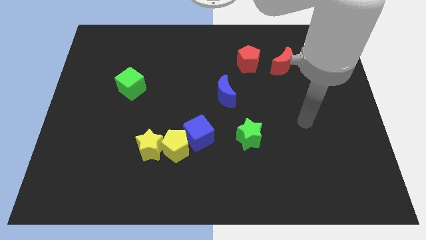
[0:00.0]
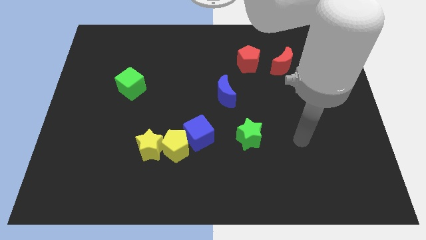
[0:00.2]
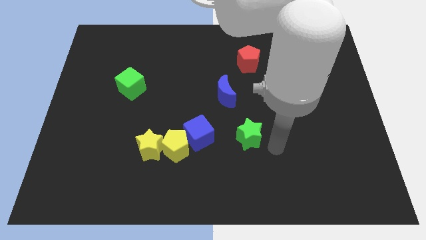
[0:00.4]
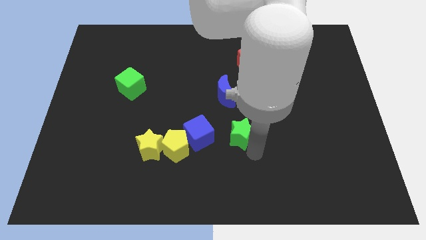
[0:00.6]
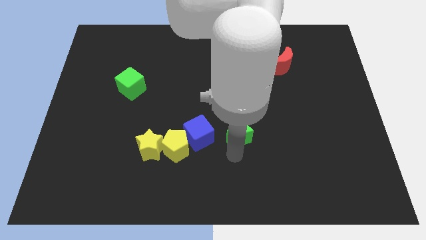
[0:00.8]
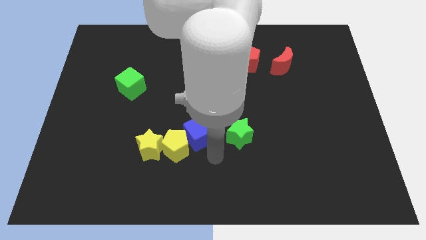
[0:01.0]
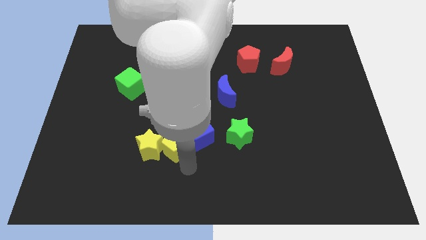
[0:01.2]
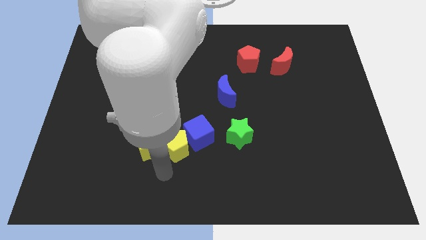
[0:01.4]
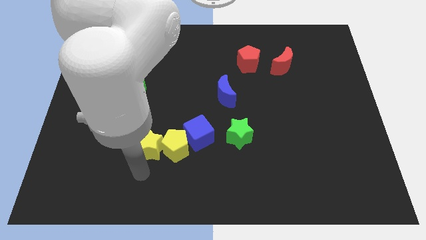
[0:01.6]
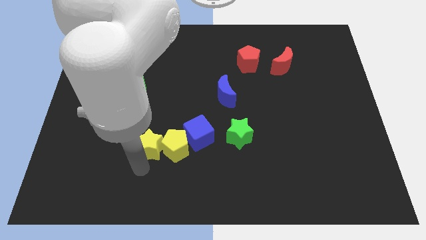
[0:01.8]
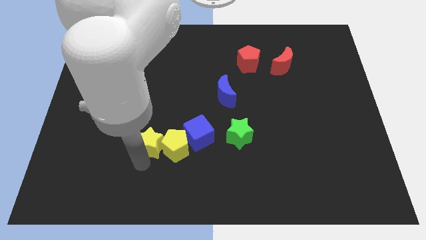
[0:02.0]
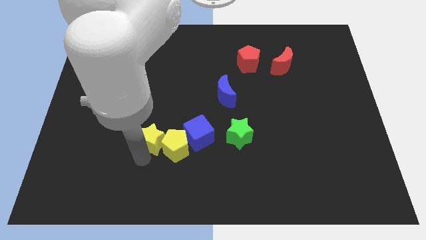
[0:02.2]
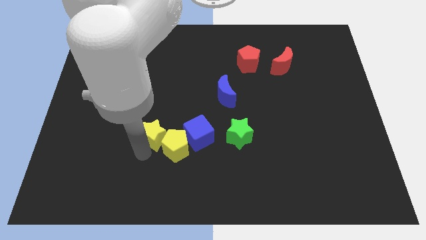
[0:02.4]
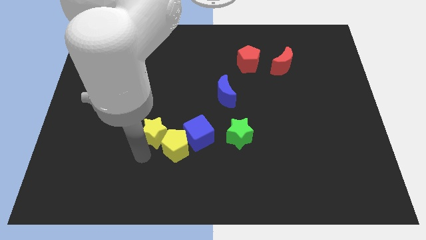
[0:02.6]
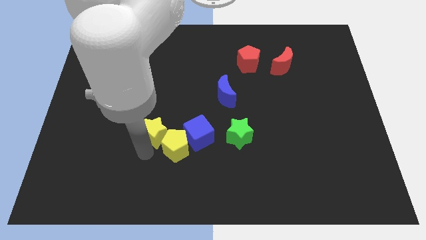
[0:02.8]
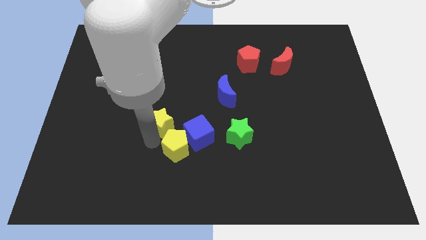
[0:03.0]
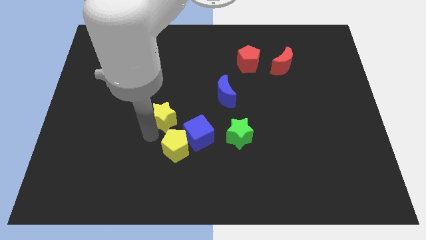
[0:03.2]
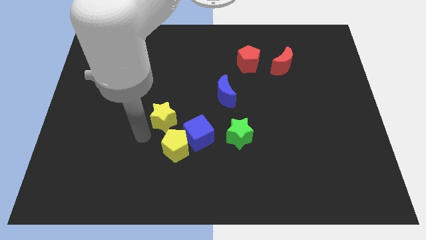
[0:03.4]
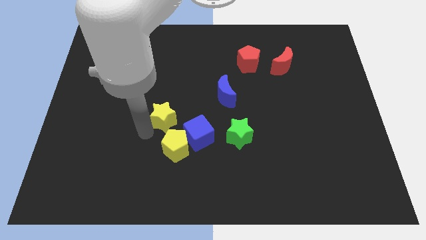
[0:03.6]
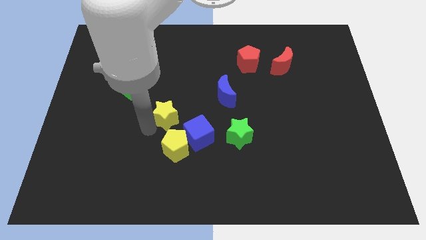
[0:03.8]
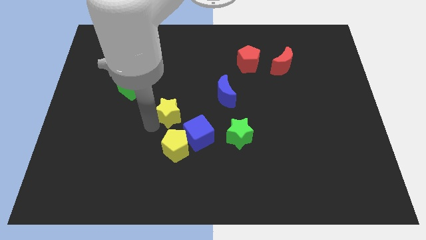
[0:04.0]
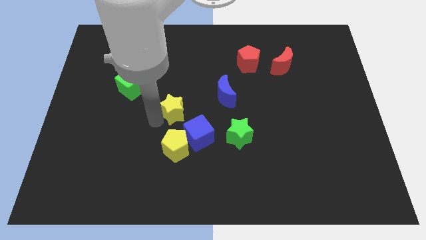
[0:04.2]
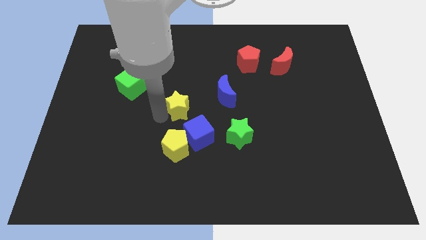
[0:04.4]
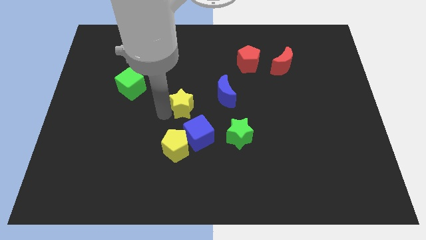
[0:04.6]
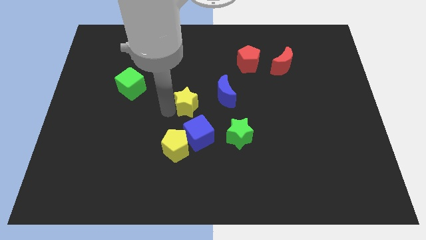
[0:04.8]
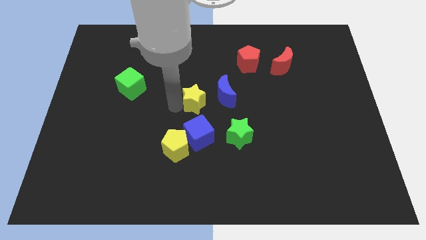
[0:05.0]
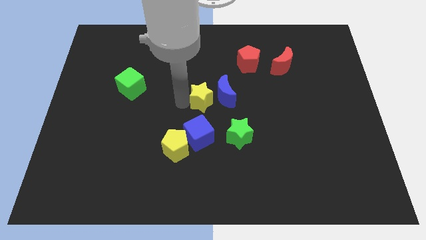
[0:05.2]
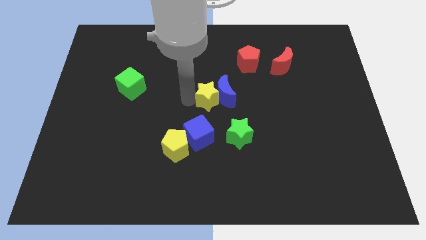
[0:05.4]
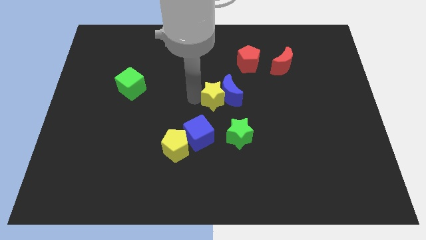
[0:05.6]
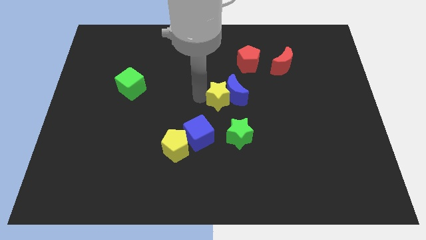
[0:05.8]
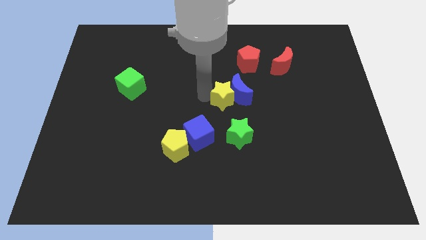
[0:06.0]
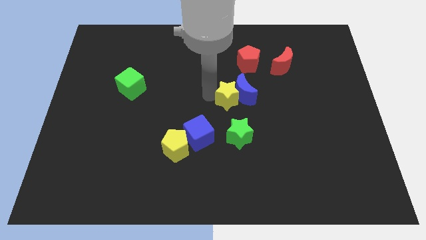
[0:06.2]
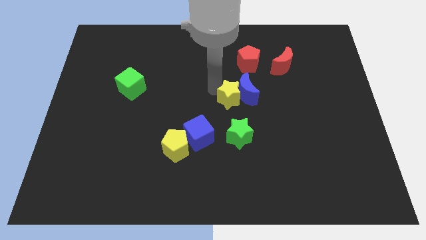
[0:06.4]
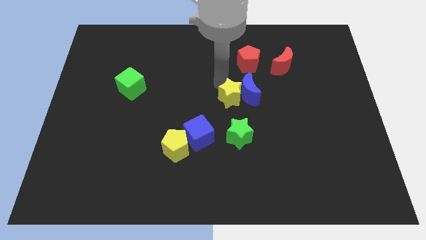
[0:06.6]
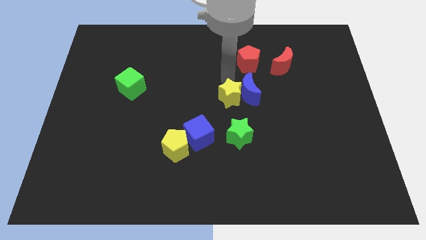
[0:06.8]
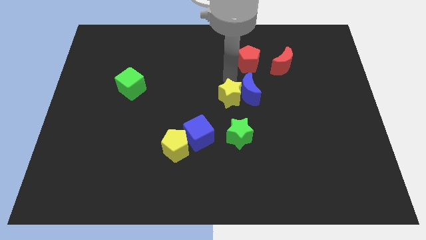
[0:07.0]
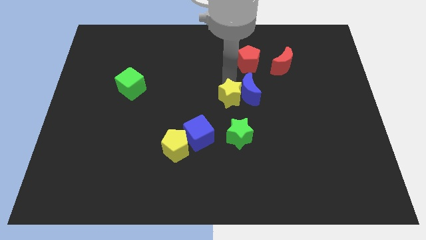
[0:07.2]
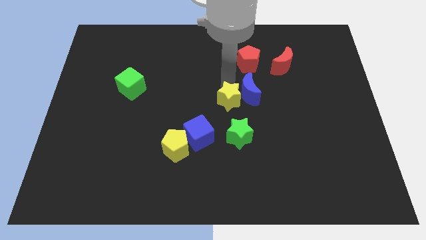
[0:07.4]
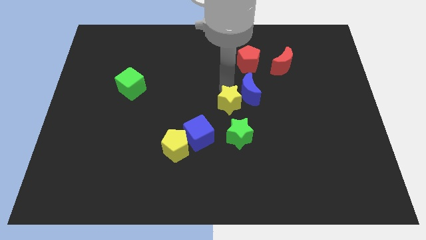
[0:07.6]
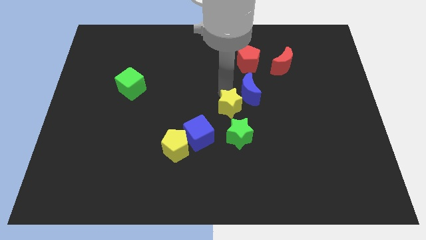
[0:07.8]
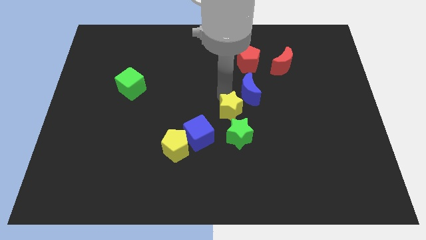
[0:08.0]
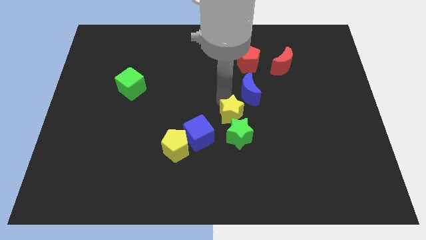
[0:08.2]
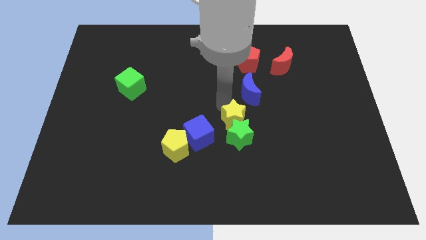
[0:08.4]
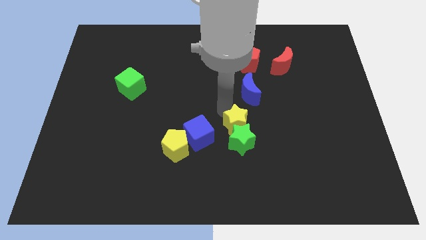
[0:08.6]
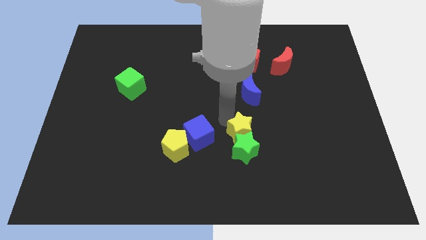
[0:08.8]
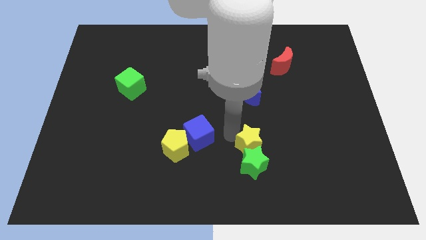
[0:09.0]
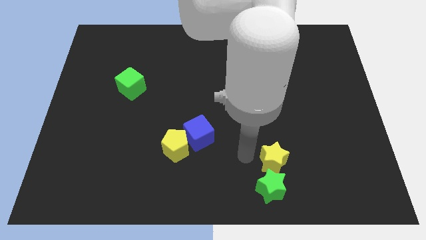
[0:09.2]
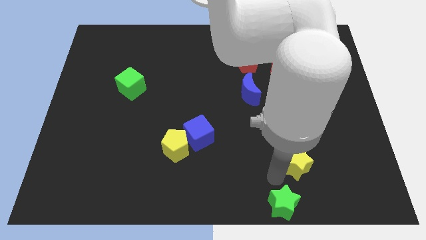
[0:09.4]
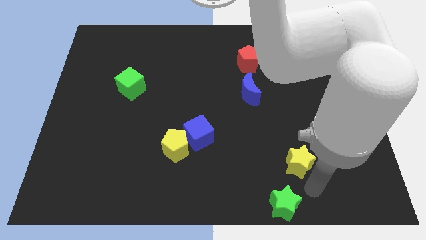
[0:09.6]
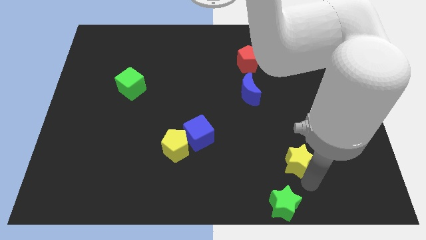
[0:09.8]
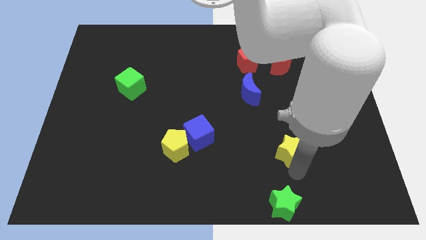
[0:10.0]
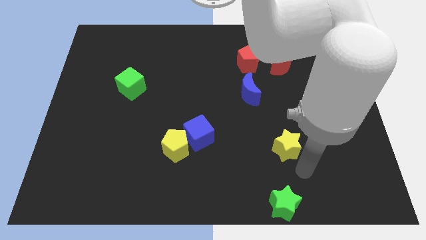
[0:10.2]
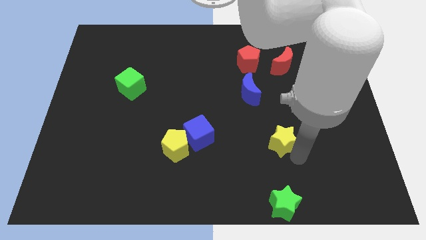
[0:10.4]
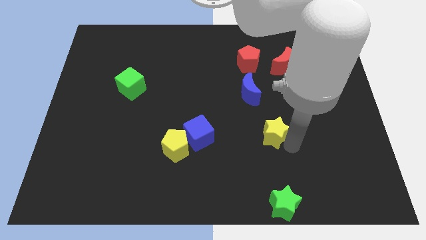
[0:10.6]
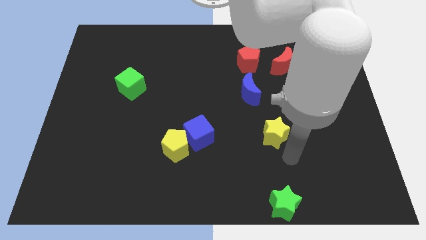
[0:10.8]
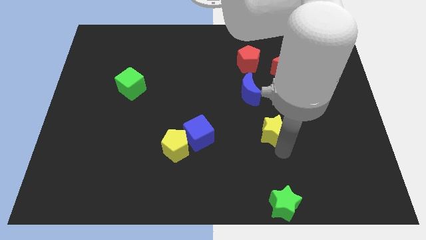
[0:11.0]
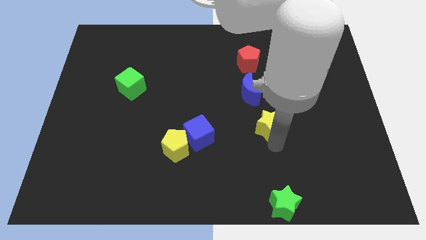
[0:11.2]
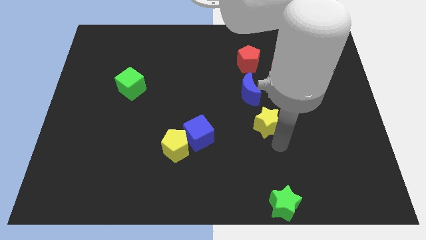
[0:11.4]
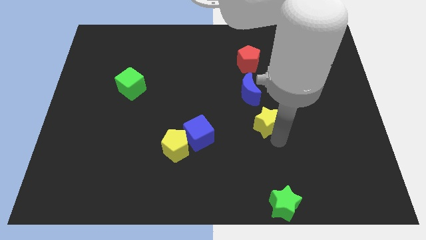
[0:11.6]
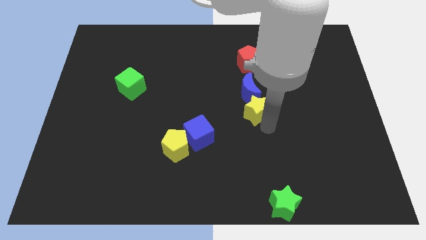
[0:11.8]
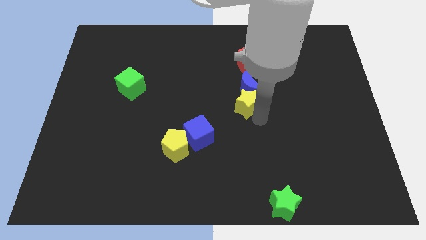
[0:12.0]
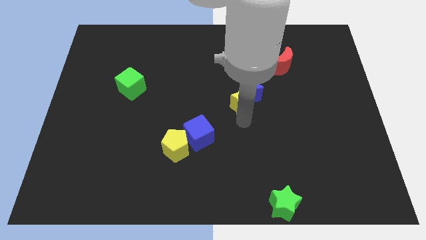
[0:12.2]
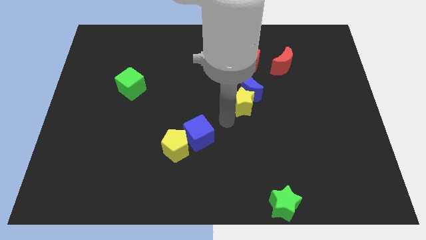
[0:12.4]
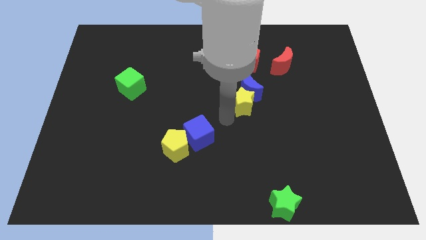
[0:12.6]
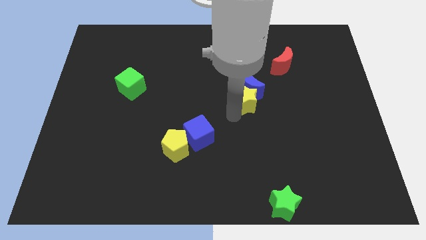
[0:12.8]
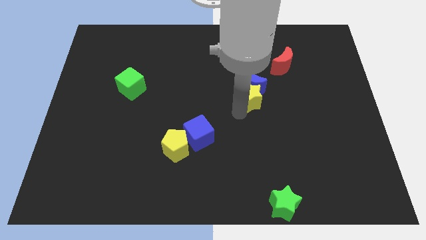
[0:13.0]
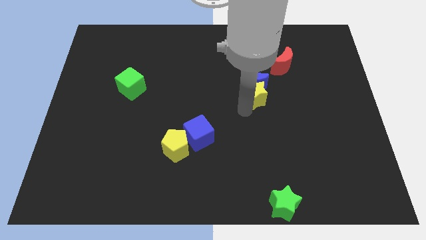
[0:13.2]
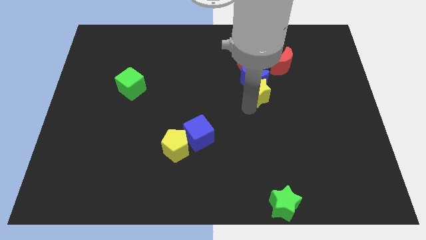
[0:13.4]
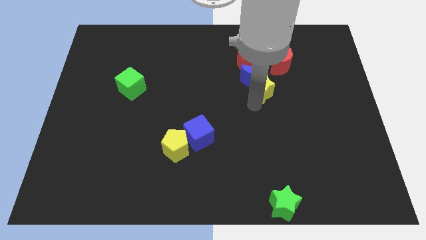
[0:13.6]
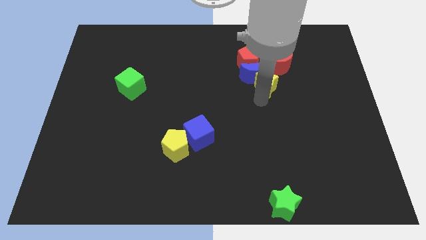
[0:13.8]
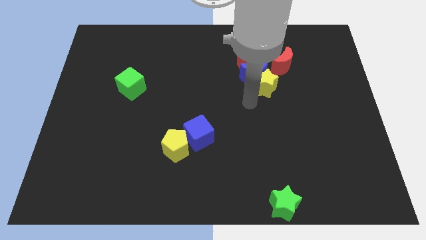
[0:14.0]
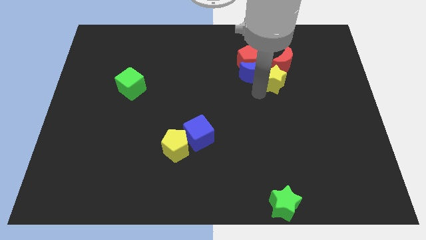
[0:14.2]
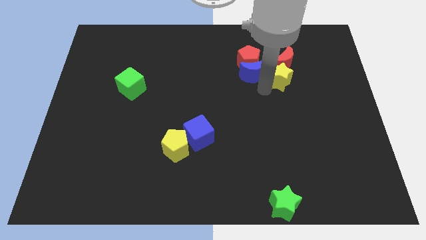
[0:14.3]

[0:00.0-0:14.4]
move the yellow star close to the red moon

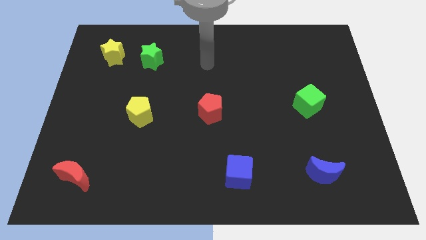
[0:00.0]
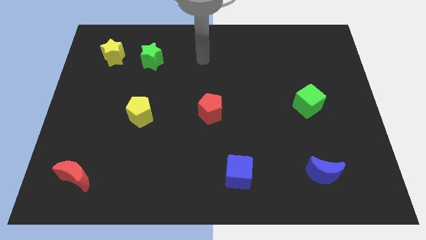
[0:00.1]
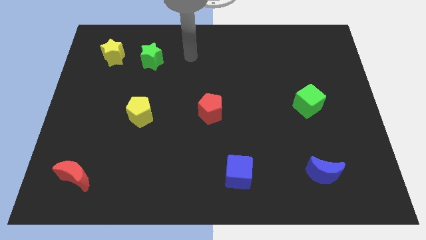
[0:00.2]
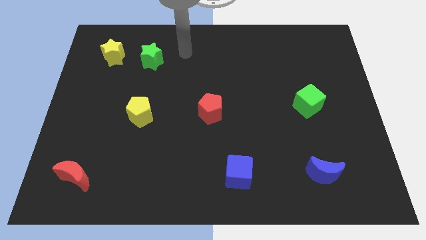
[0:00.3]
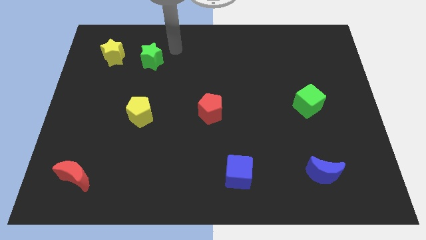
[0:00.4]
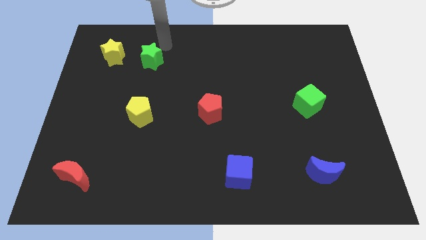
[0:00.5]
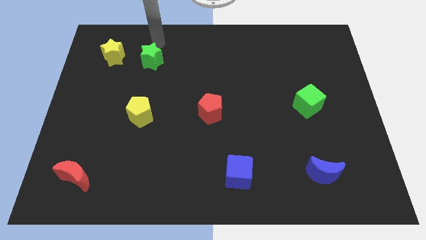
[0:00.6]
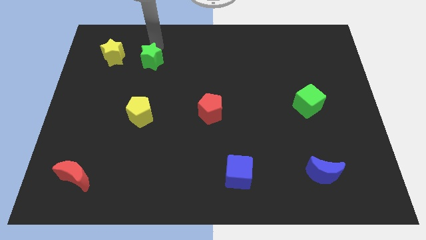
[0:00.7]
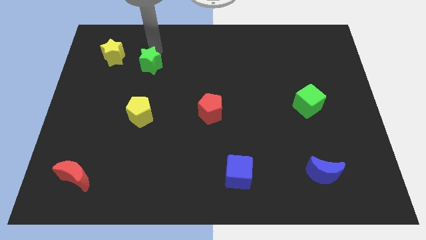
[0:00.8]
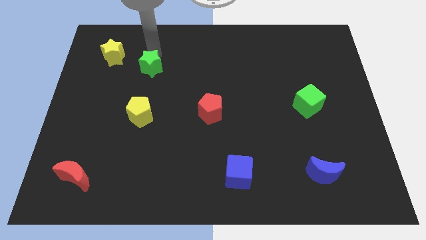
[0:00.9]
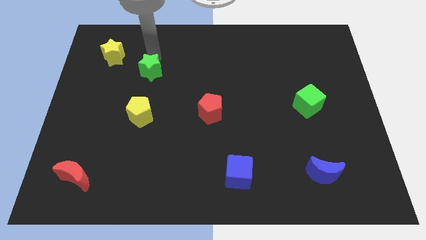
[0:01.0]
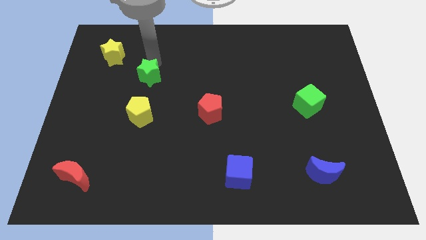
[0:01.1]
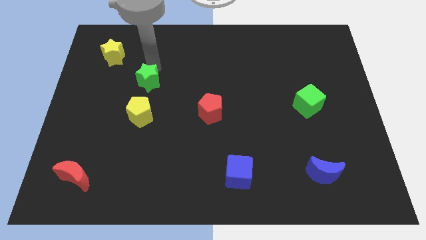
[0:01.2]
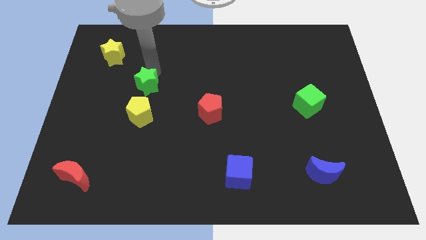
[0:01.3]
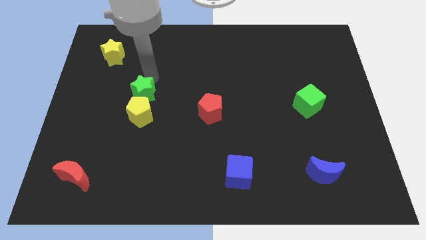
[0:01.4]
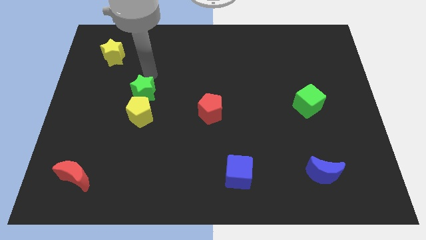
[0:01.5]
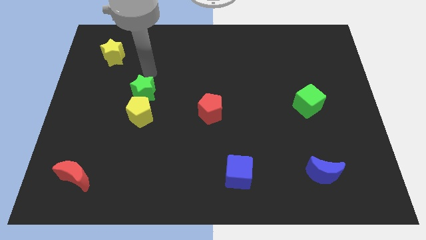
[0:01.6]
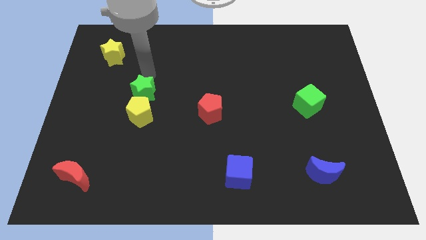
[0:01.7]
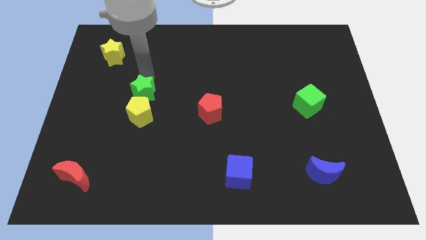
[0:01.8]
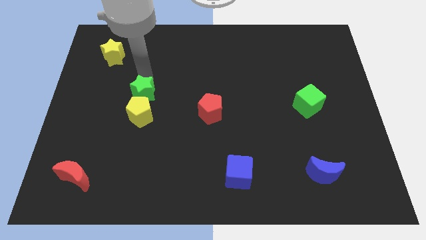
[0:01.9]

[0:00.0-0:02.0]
slide the green star towards the yellow pentagon
